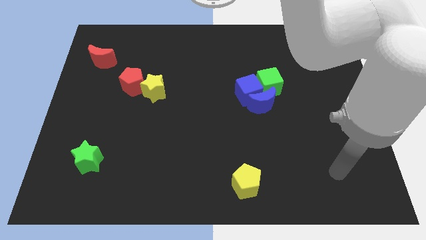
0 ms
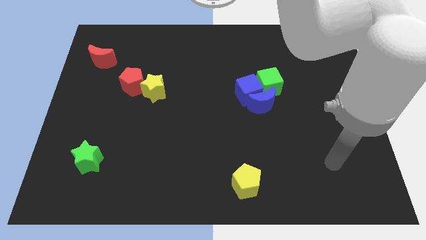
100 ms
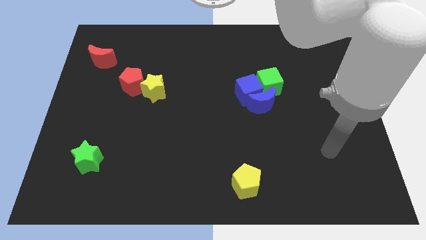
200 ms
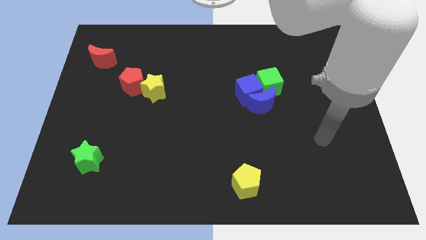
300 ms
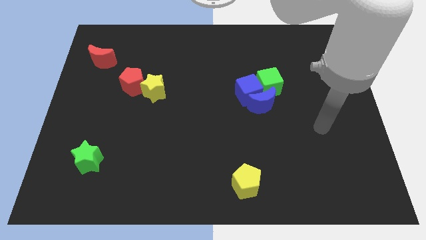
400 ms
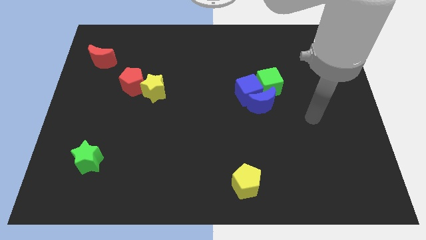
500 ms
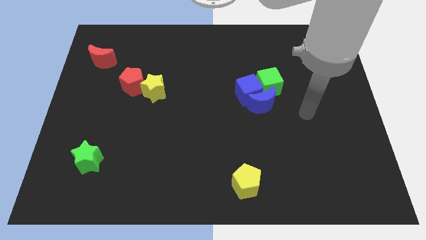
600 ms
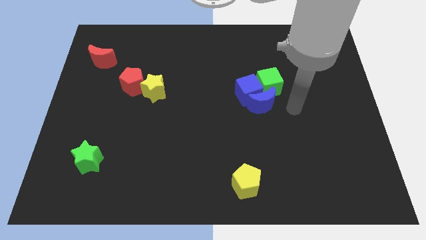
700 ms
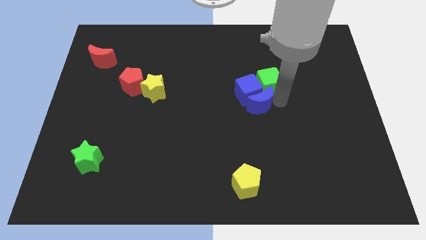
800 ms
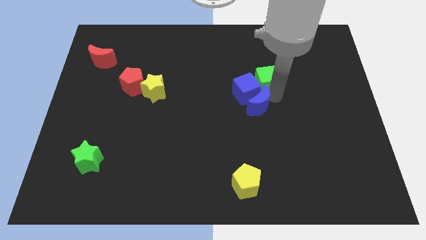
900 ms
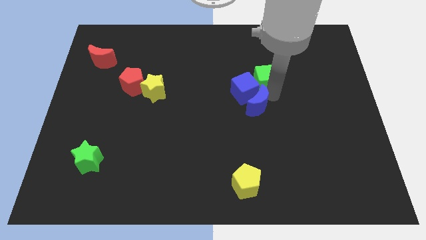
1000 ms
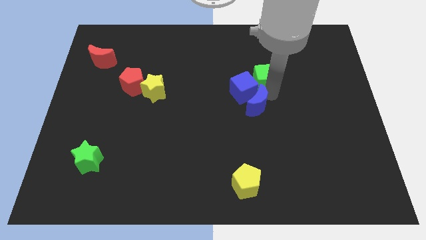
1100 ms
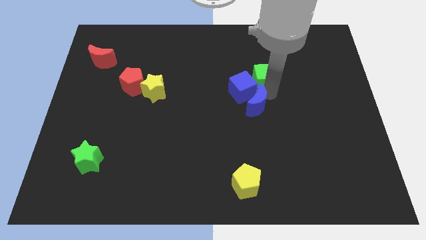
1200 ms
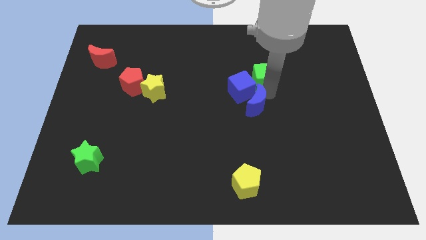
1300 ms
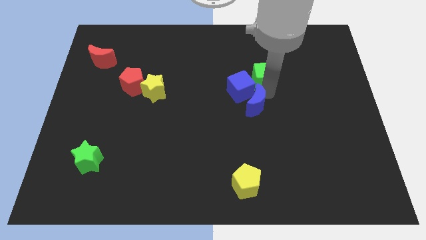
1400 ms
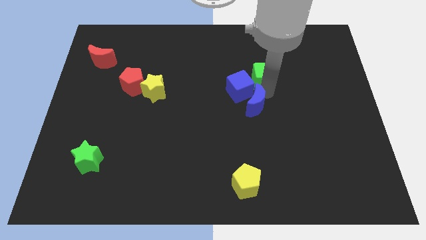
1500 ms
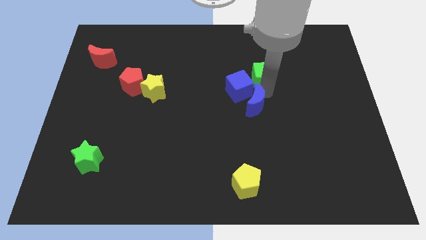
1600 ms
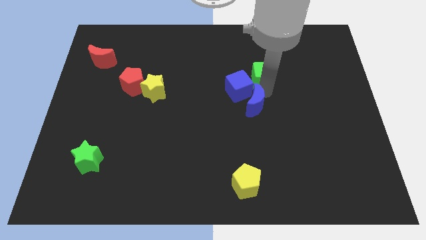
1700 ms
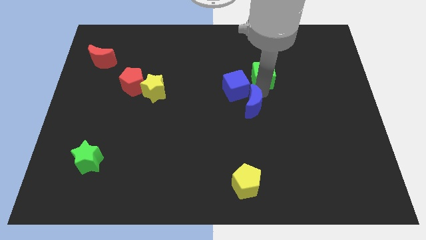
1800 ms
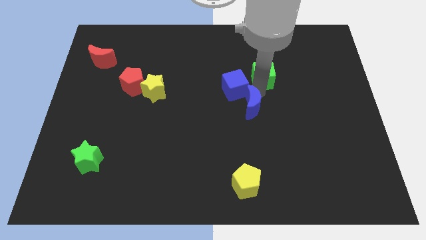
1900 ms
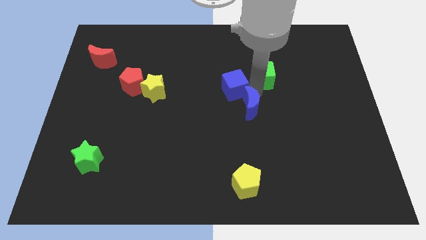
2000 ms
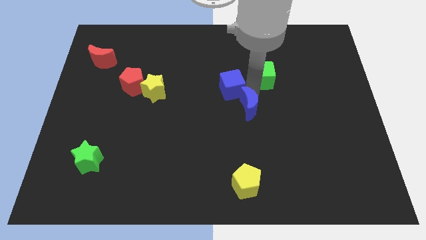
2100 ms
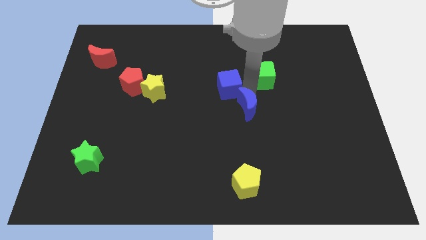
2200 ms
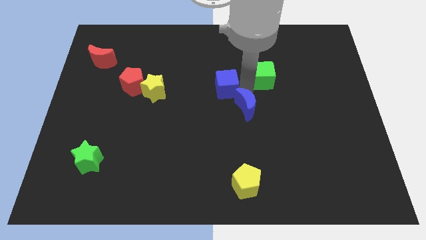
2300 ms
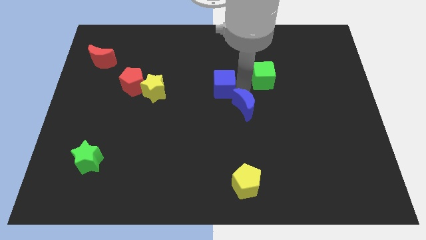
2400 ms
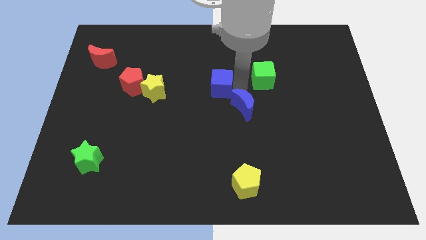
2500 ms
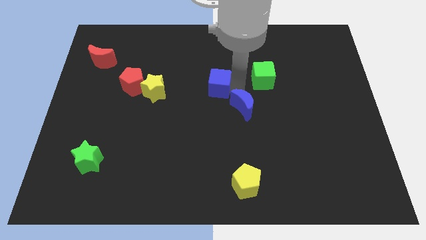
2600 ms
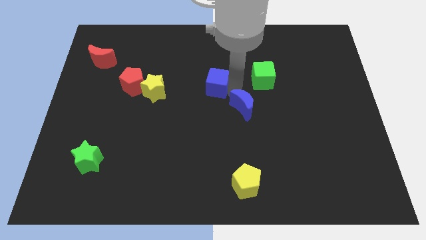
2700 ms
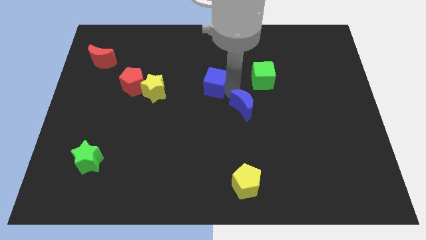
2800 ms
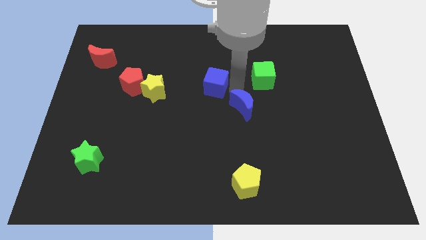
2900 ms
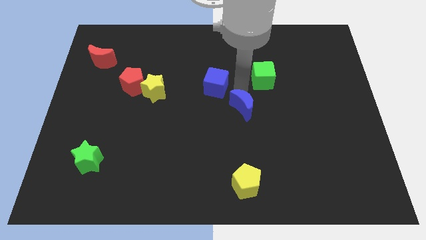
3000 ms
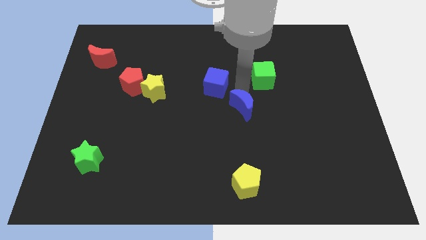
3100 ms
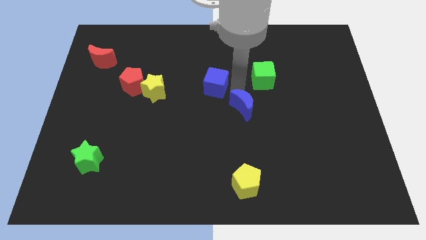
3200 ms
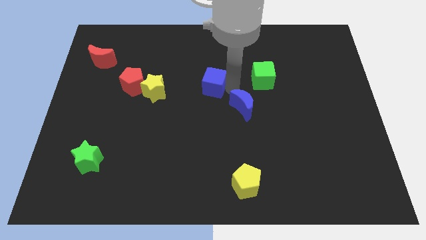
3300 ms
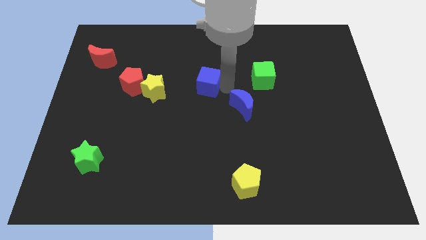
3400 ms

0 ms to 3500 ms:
separate the blue cube from the blue moon and green cube

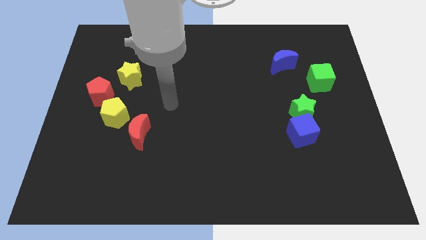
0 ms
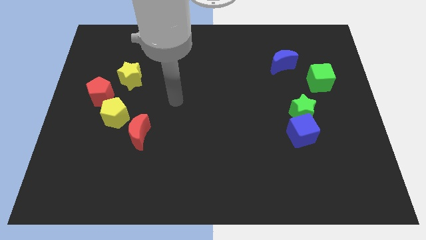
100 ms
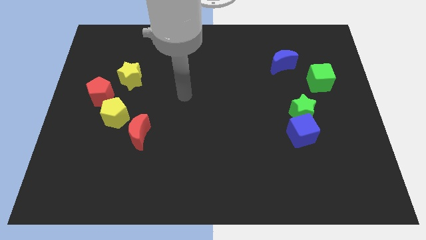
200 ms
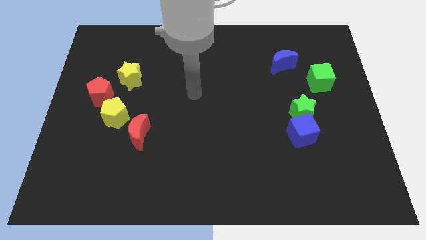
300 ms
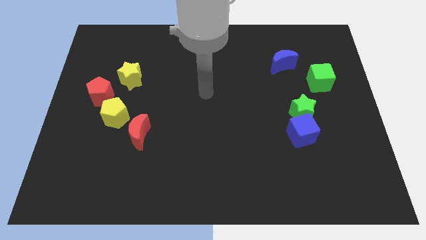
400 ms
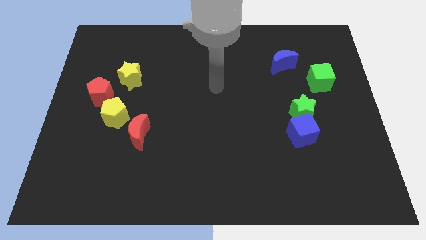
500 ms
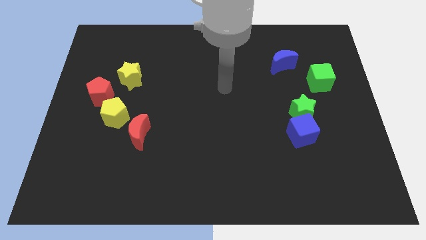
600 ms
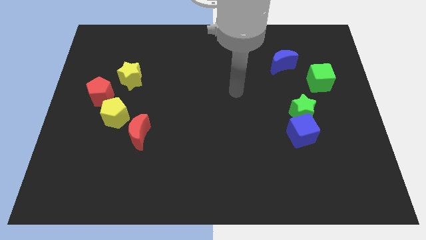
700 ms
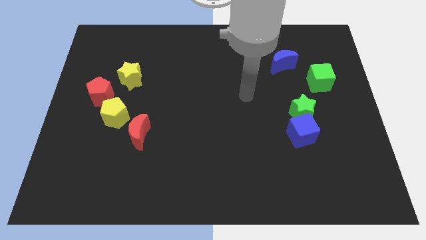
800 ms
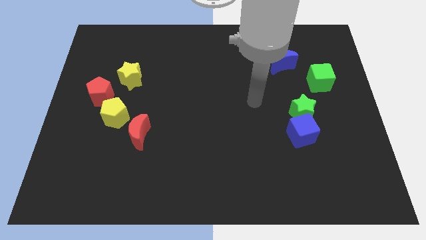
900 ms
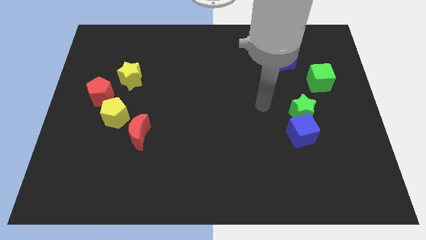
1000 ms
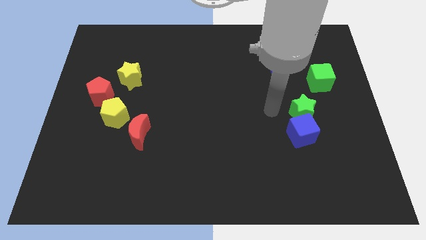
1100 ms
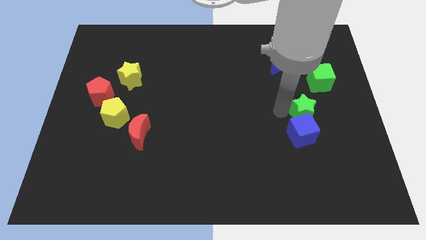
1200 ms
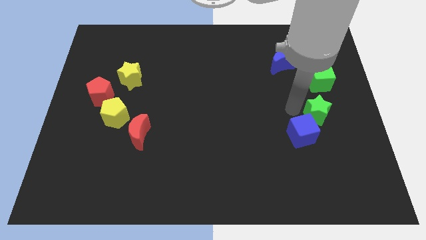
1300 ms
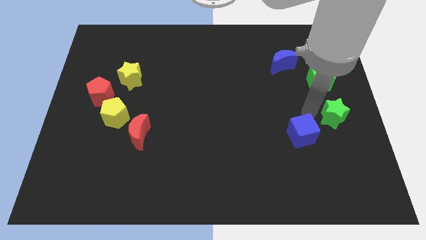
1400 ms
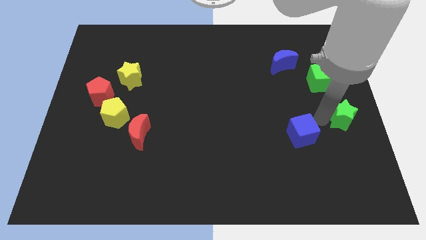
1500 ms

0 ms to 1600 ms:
pull the blue cube apart from the green star

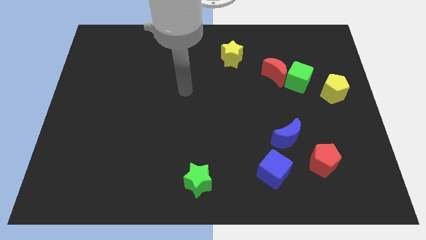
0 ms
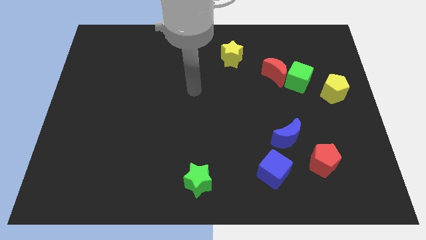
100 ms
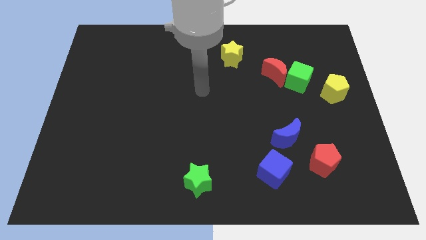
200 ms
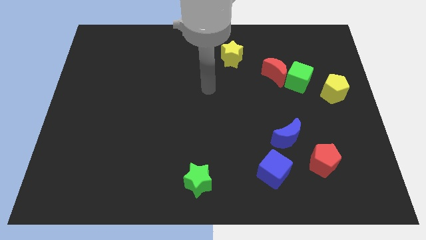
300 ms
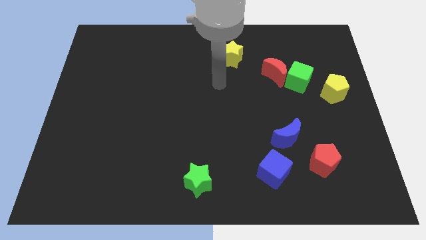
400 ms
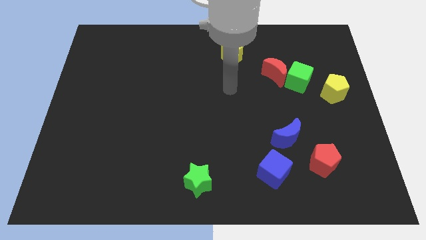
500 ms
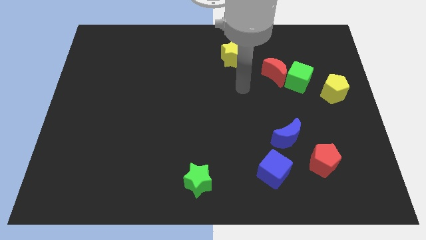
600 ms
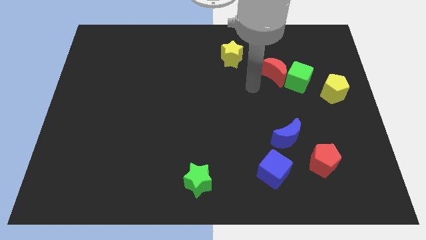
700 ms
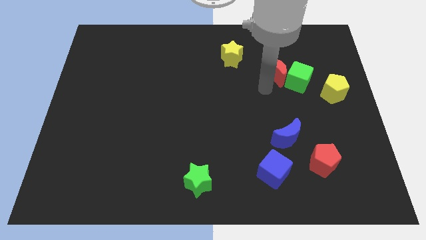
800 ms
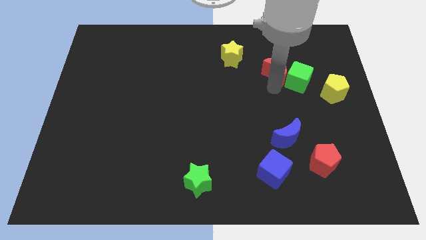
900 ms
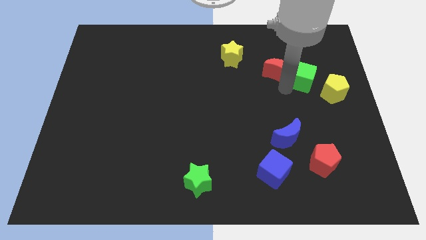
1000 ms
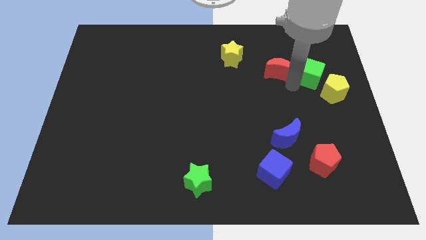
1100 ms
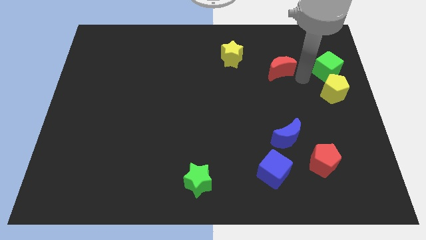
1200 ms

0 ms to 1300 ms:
move the red moon away from the green cube

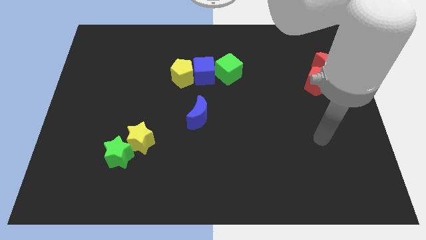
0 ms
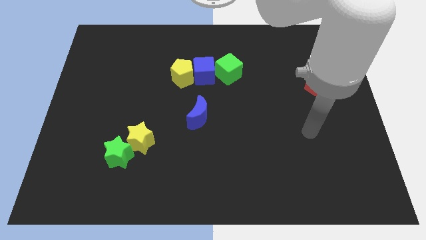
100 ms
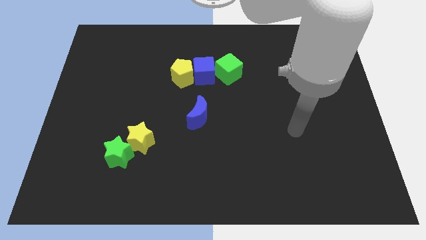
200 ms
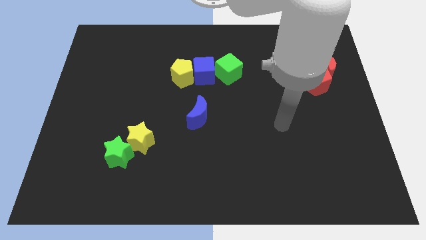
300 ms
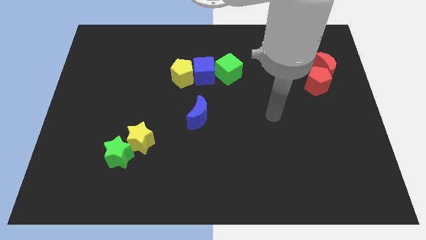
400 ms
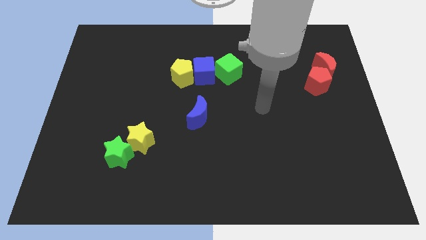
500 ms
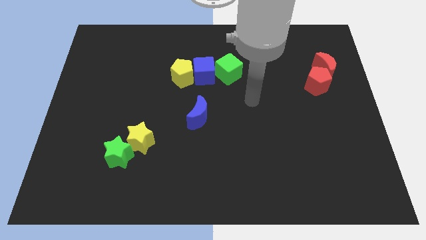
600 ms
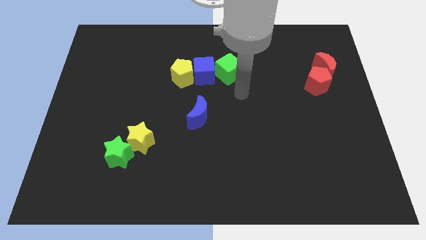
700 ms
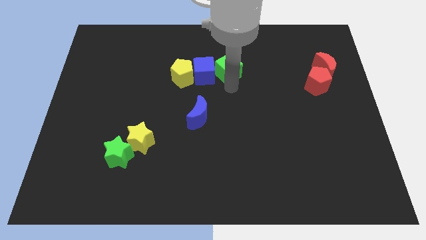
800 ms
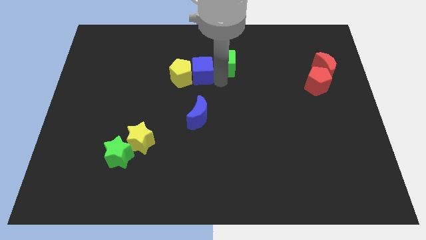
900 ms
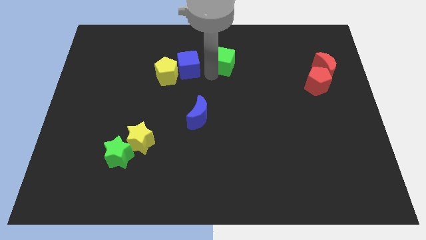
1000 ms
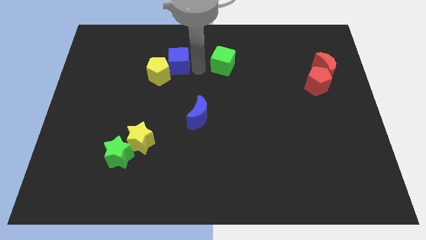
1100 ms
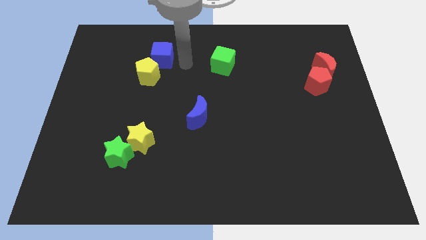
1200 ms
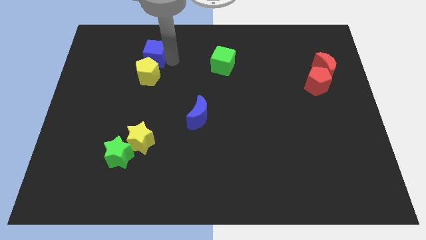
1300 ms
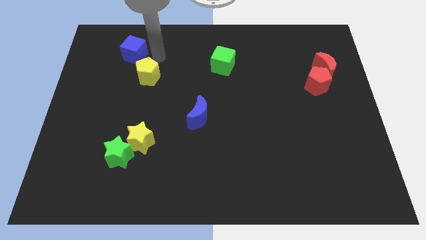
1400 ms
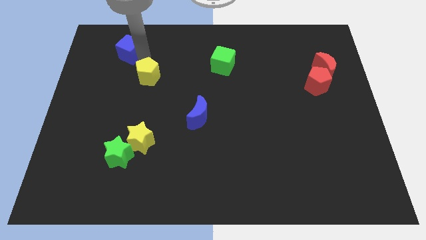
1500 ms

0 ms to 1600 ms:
separate the yellow pentagon from the blue cube

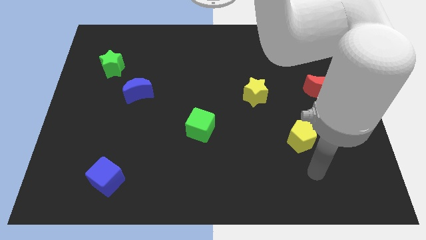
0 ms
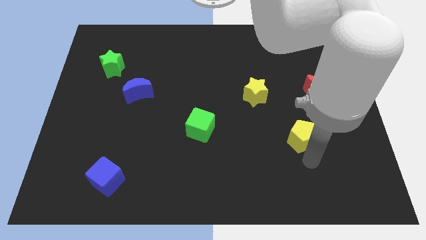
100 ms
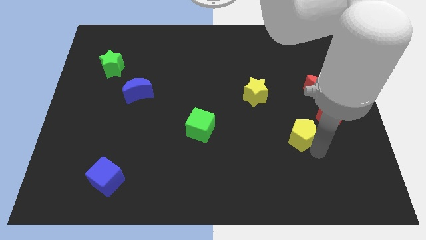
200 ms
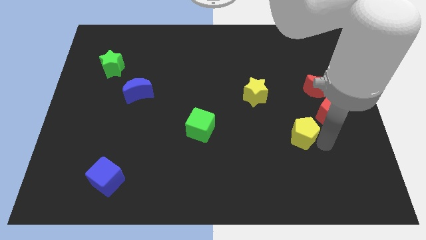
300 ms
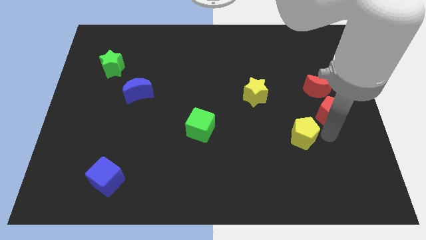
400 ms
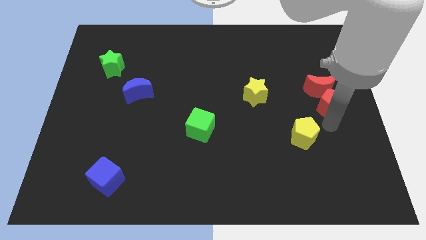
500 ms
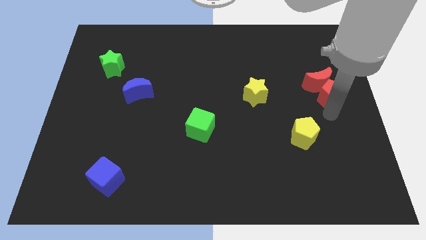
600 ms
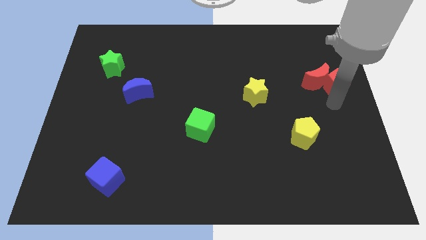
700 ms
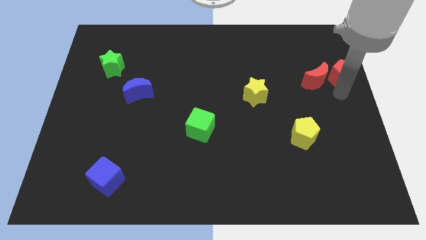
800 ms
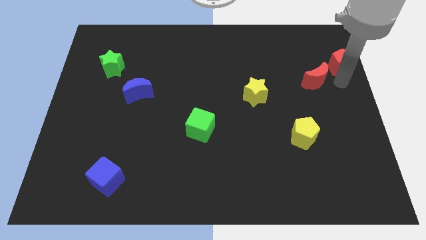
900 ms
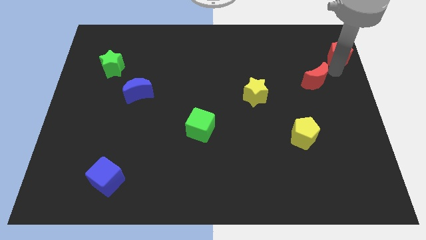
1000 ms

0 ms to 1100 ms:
pull the red moon apart from the red pentagon
